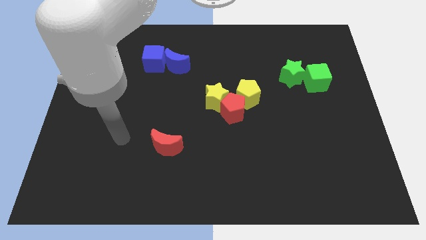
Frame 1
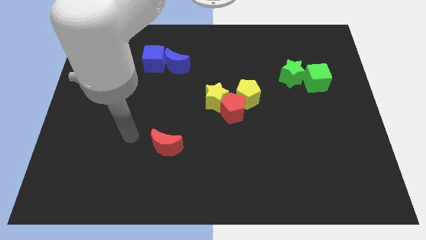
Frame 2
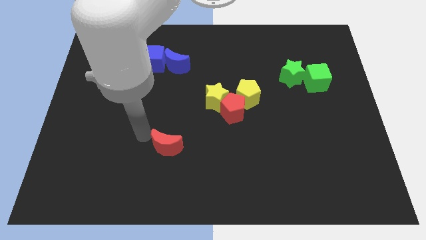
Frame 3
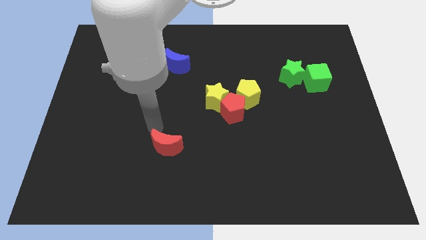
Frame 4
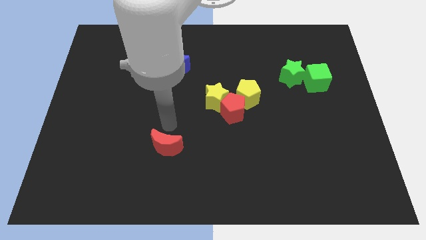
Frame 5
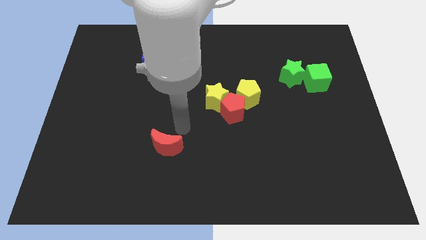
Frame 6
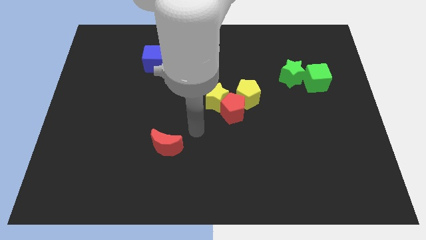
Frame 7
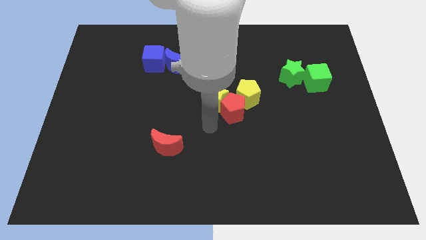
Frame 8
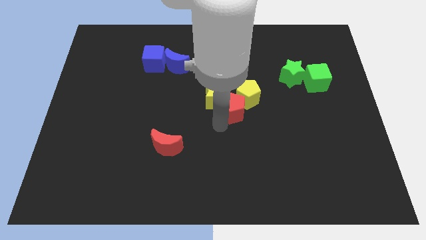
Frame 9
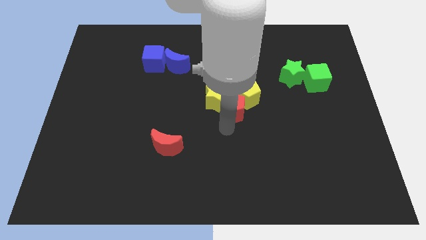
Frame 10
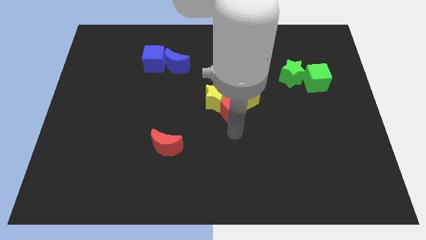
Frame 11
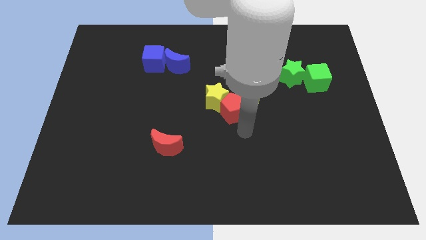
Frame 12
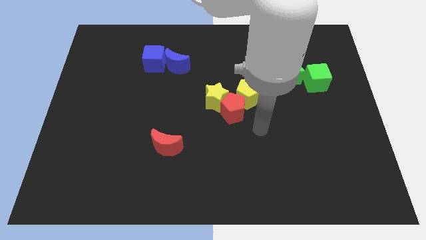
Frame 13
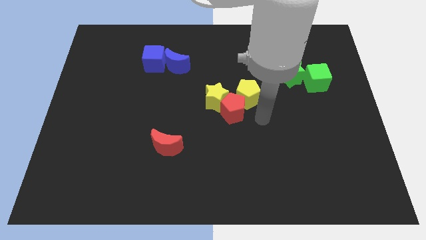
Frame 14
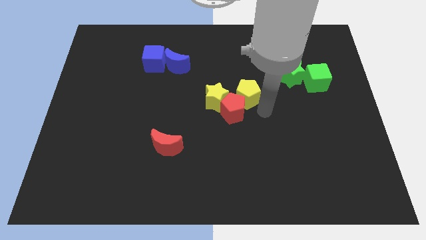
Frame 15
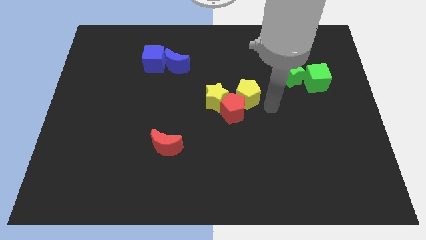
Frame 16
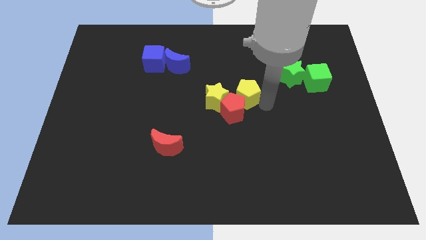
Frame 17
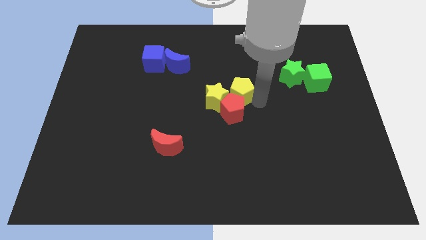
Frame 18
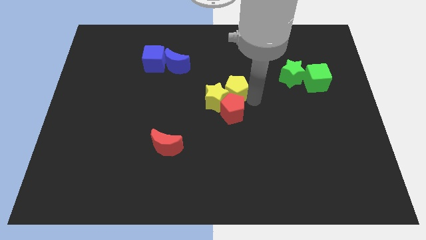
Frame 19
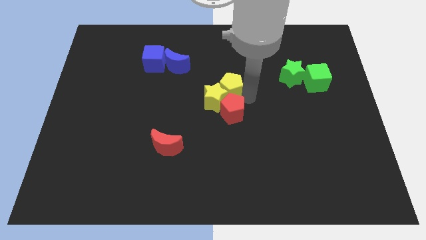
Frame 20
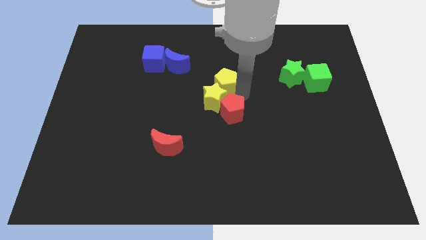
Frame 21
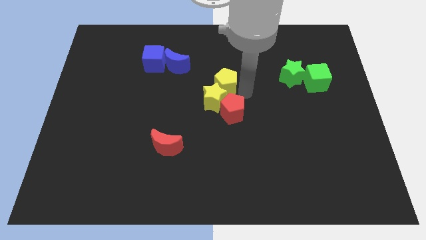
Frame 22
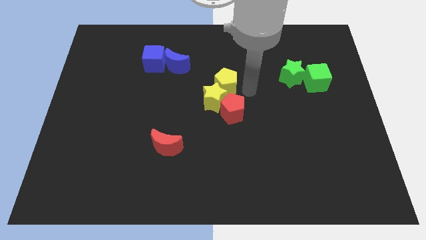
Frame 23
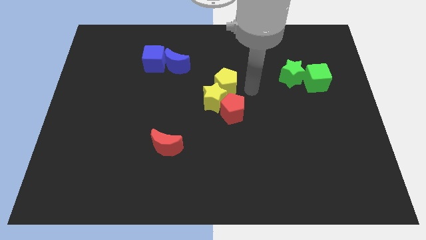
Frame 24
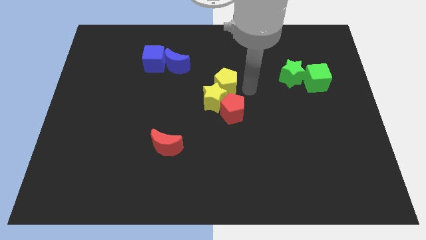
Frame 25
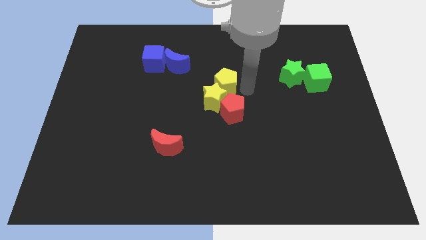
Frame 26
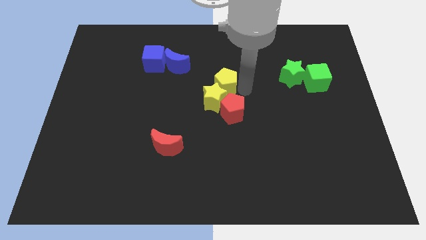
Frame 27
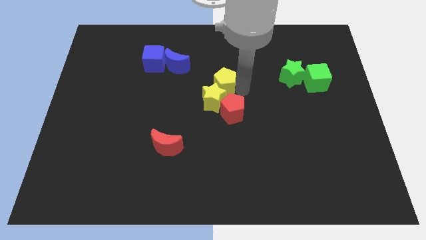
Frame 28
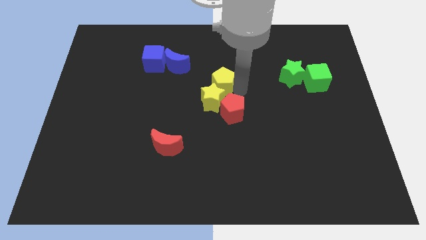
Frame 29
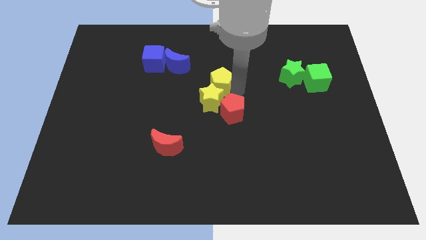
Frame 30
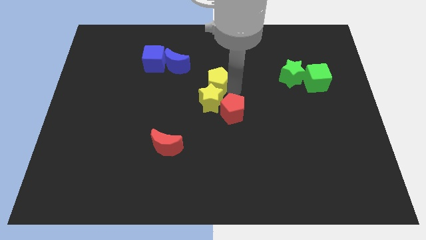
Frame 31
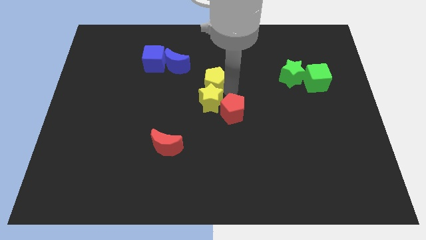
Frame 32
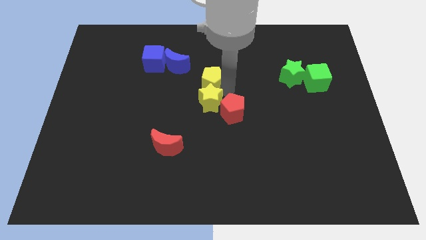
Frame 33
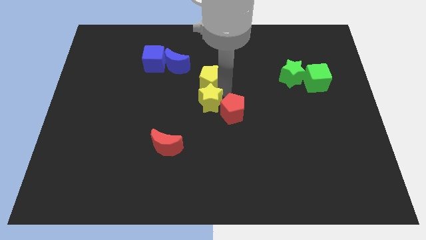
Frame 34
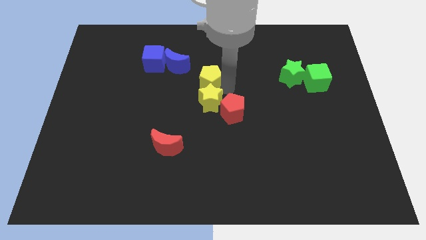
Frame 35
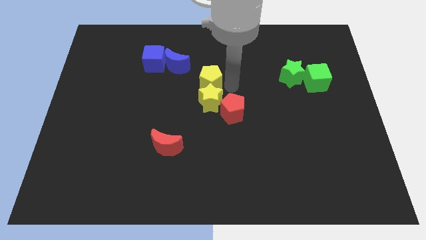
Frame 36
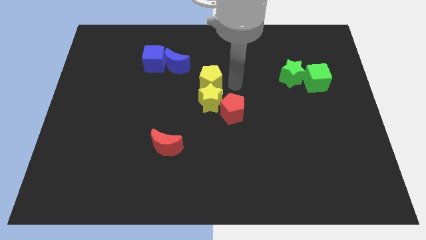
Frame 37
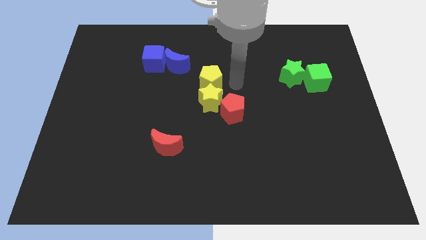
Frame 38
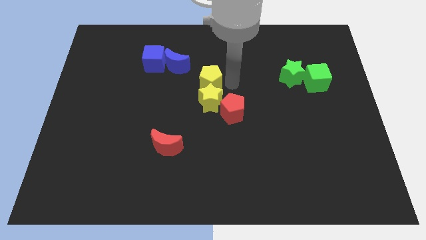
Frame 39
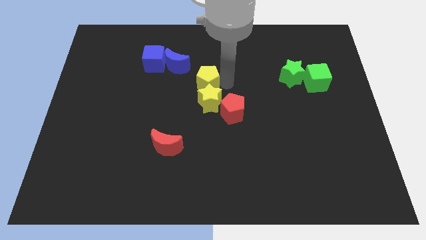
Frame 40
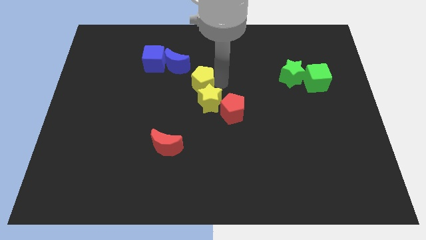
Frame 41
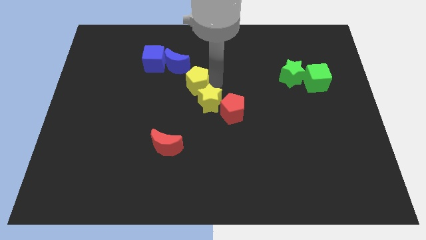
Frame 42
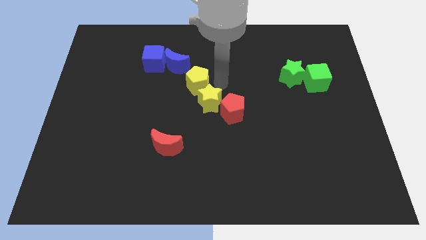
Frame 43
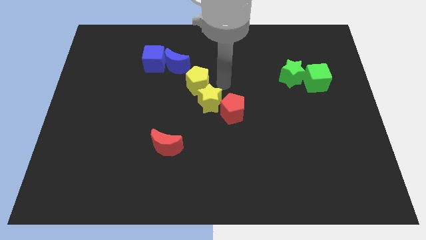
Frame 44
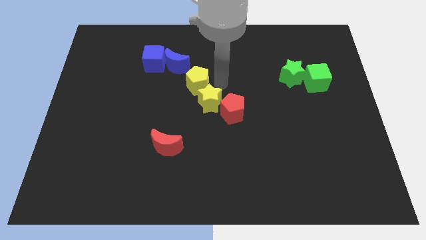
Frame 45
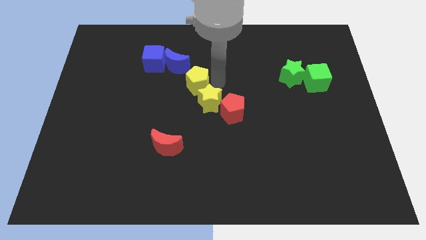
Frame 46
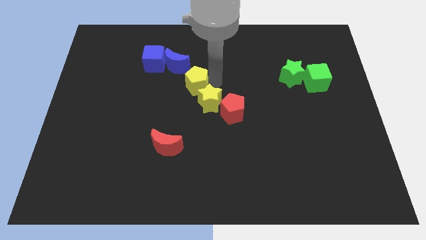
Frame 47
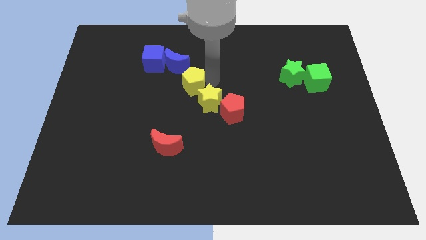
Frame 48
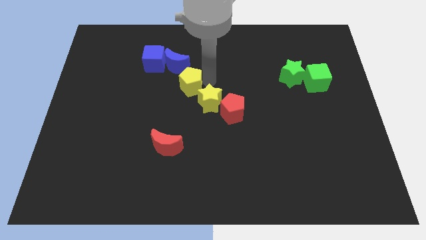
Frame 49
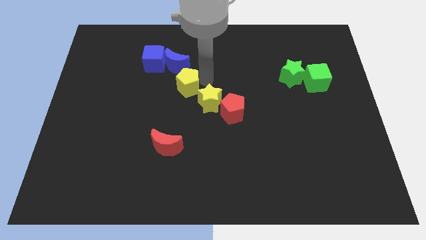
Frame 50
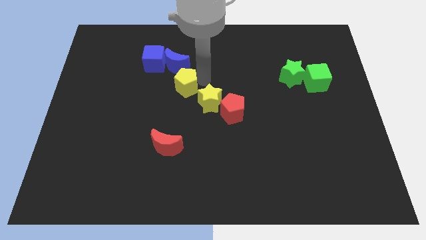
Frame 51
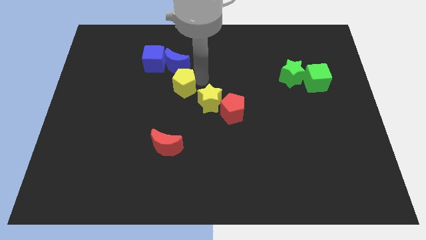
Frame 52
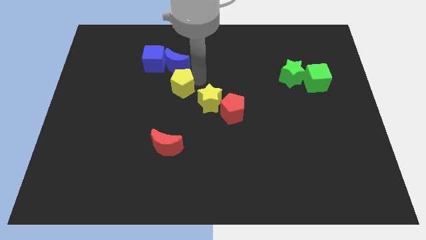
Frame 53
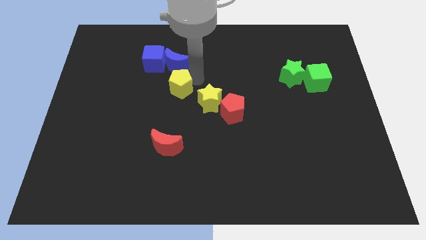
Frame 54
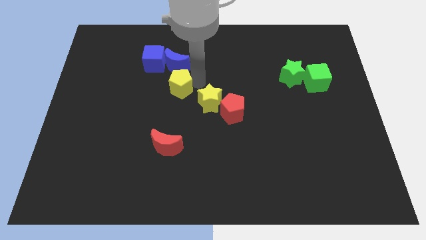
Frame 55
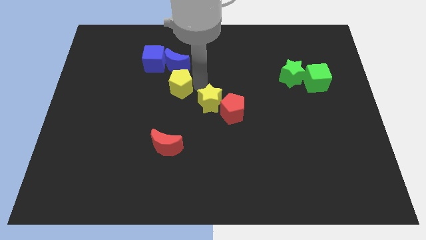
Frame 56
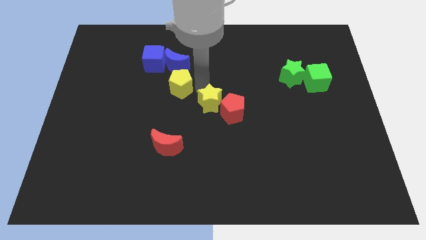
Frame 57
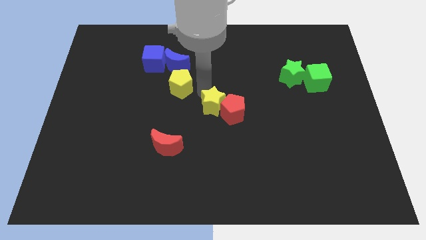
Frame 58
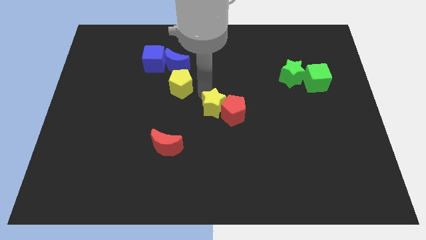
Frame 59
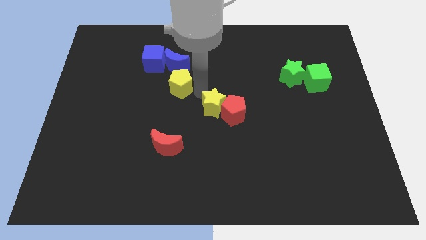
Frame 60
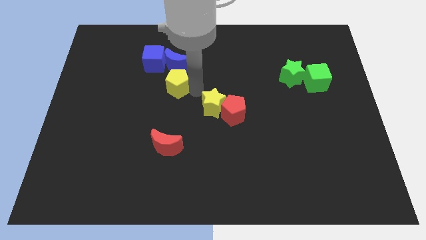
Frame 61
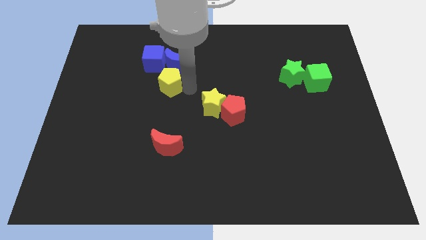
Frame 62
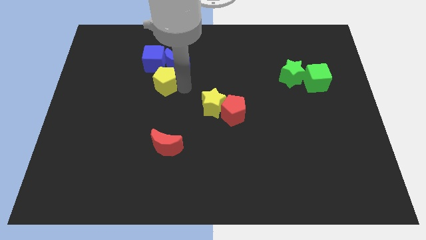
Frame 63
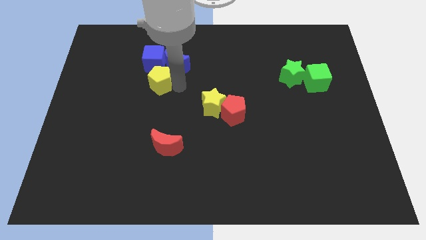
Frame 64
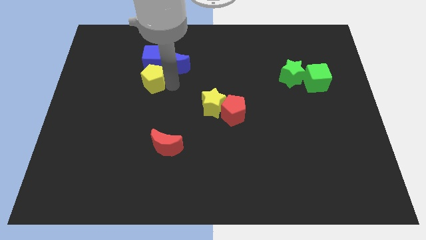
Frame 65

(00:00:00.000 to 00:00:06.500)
put the yellow pentagon to the bottom left of the blue cube

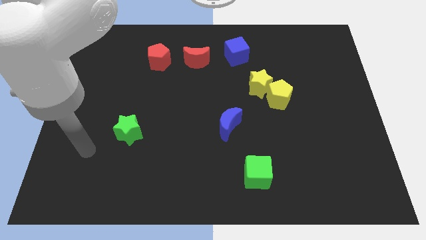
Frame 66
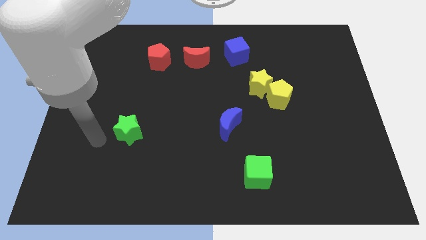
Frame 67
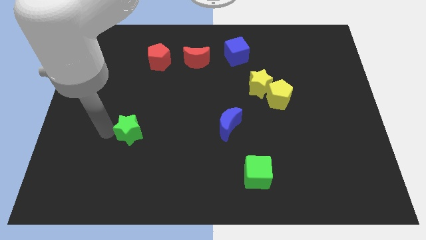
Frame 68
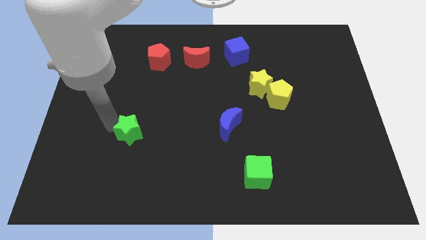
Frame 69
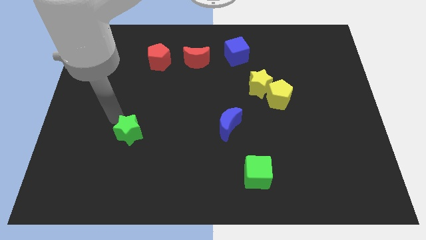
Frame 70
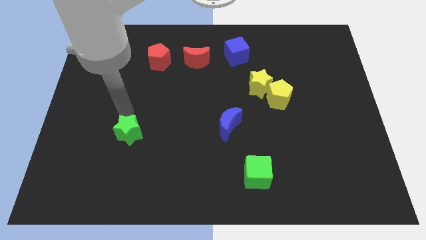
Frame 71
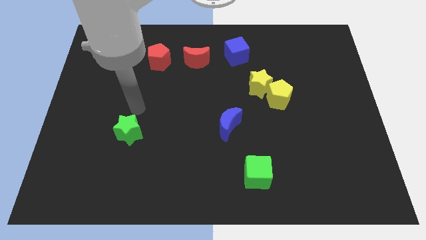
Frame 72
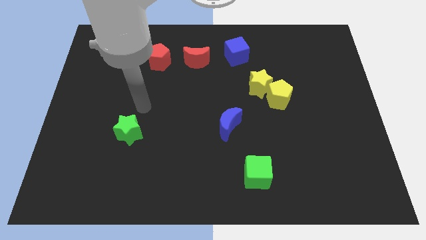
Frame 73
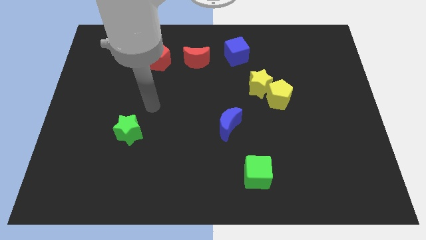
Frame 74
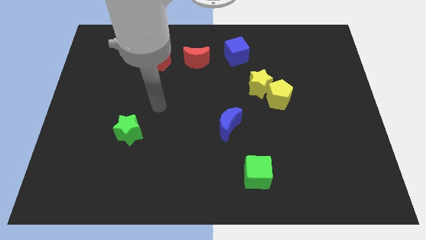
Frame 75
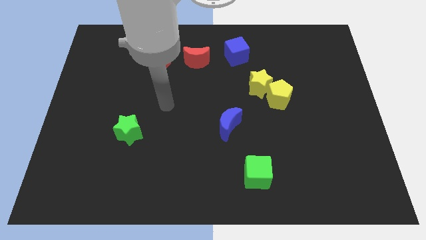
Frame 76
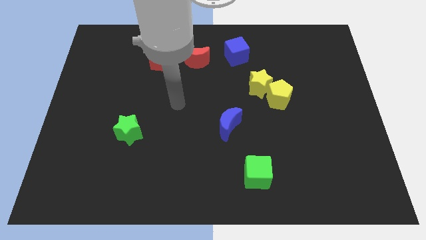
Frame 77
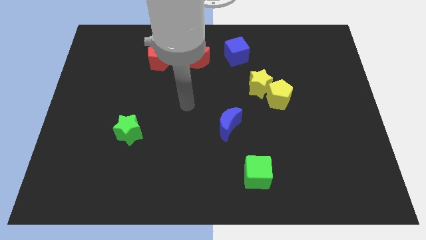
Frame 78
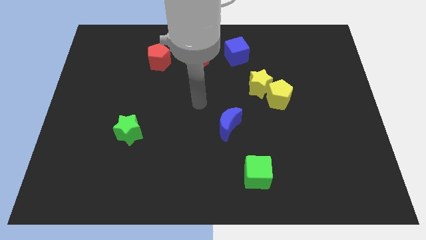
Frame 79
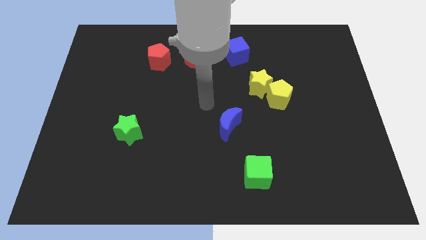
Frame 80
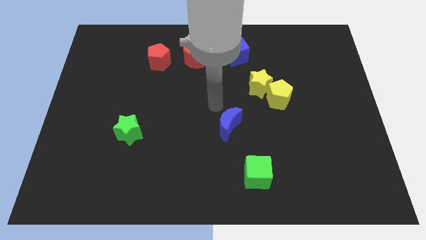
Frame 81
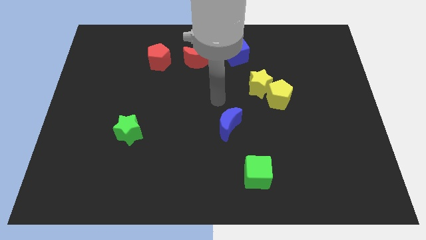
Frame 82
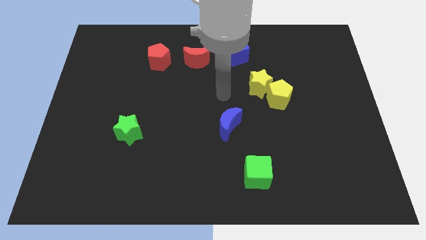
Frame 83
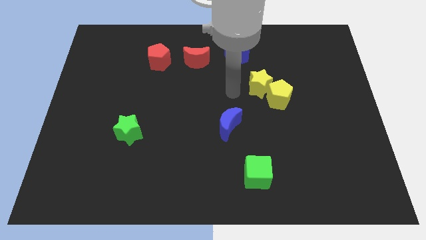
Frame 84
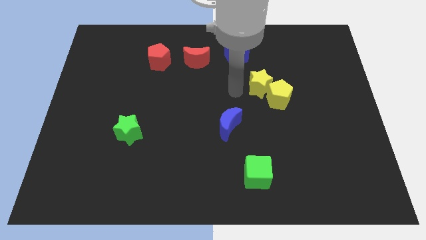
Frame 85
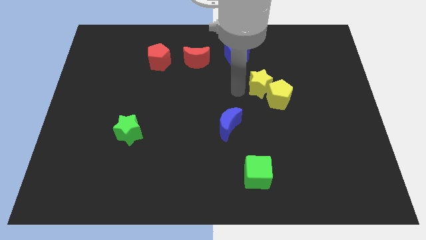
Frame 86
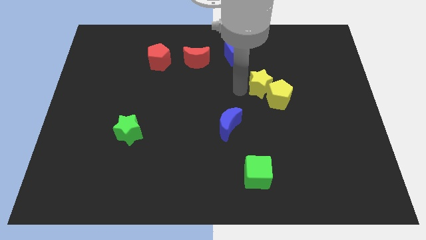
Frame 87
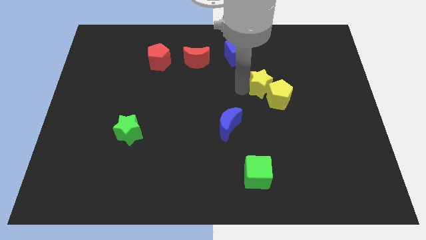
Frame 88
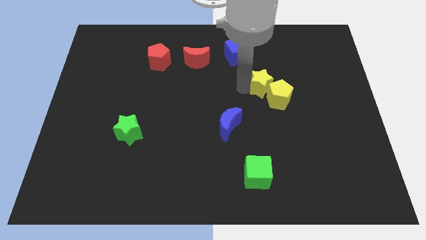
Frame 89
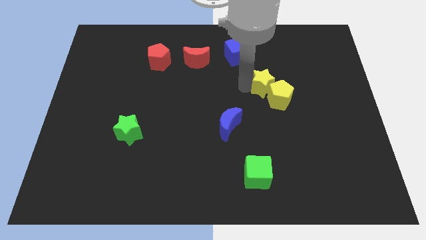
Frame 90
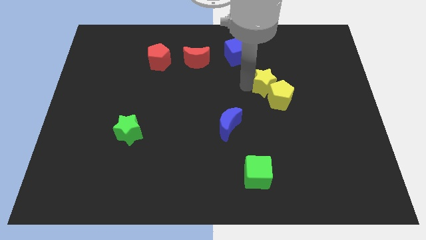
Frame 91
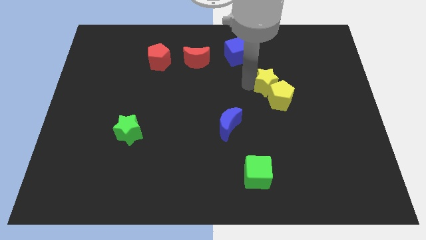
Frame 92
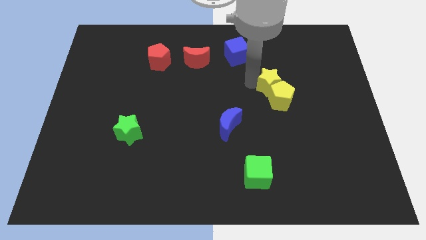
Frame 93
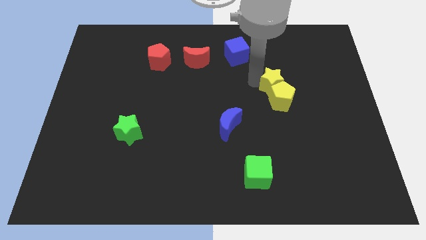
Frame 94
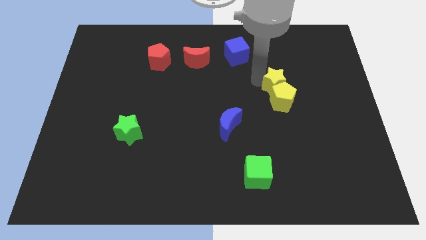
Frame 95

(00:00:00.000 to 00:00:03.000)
put the yellow star diagonally up and to the right of the yellow pentagon
